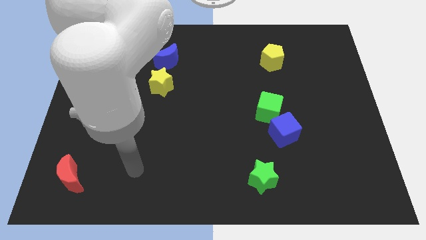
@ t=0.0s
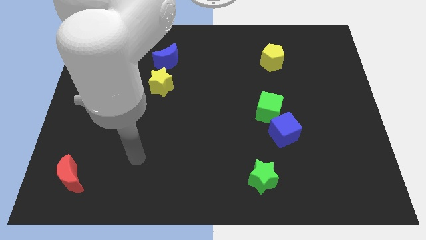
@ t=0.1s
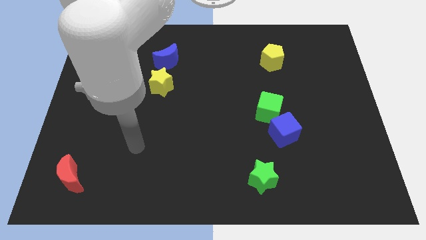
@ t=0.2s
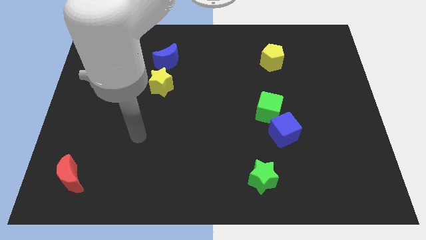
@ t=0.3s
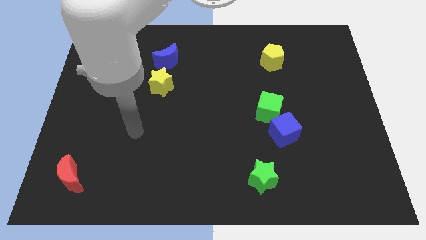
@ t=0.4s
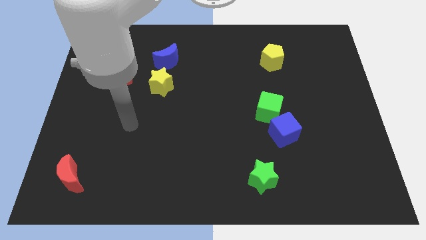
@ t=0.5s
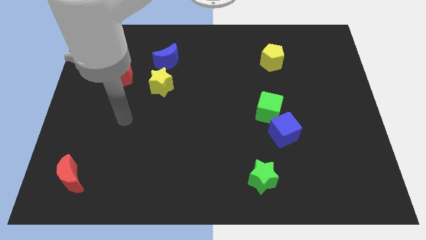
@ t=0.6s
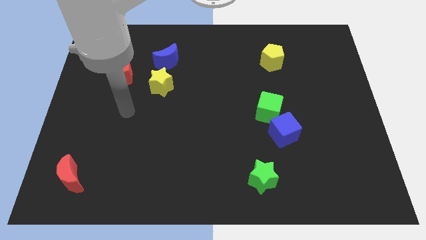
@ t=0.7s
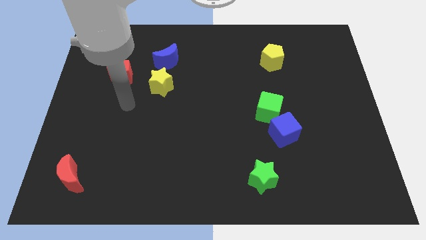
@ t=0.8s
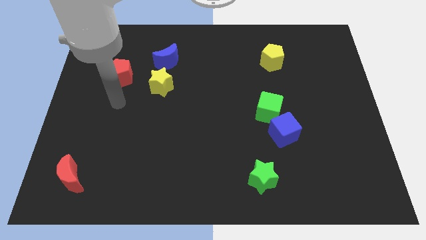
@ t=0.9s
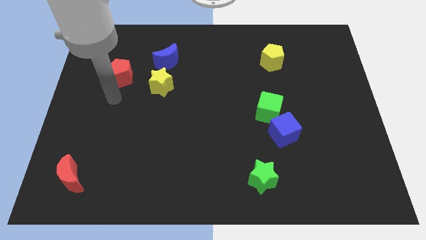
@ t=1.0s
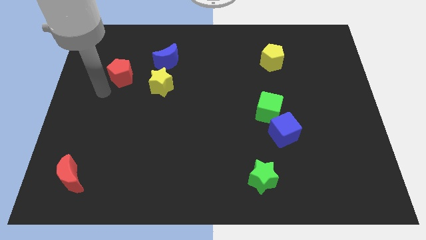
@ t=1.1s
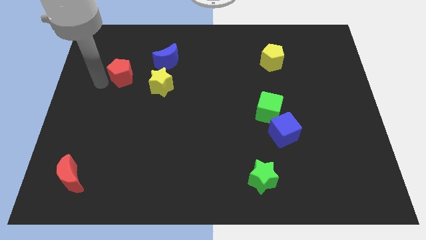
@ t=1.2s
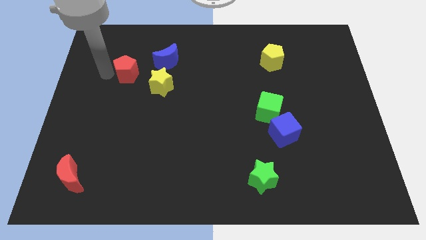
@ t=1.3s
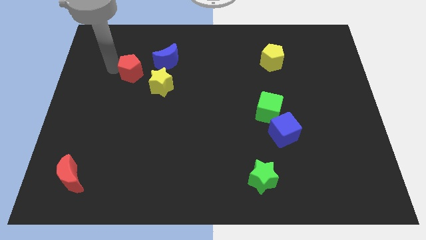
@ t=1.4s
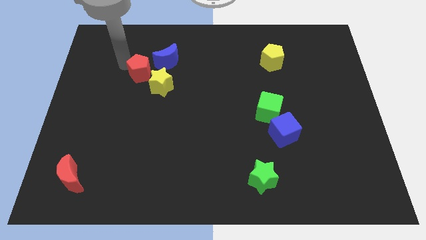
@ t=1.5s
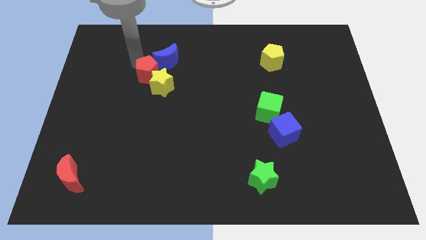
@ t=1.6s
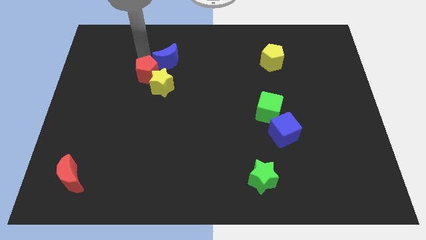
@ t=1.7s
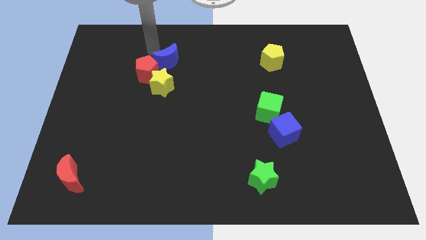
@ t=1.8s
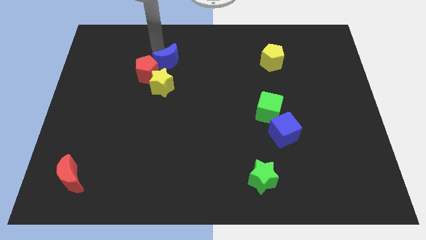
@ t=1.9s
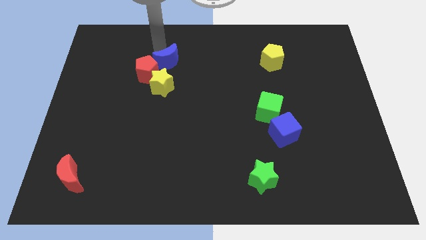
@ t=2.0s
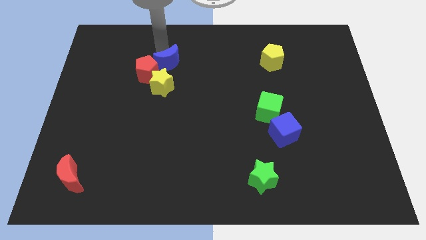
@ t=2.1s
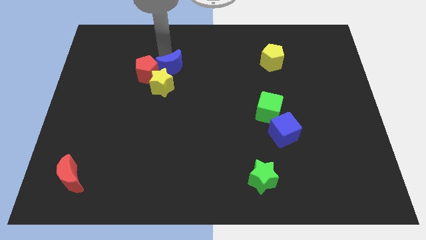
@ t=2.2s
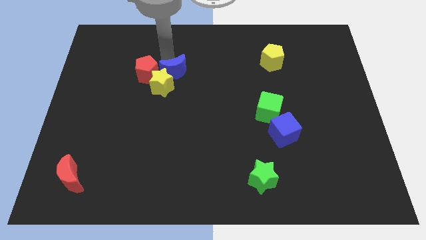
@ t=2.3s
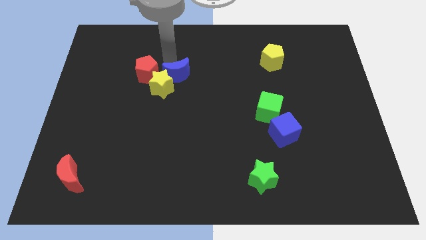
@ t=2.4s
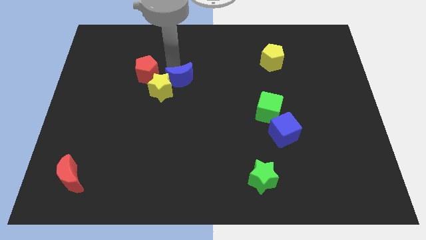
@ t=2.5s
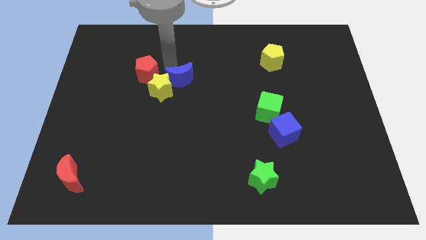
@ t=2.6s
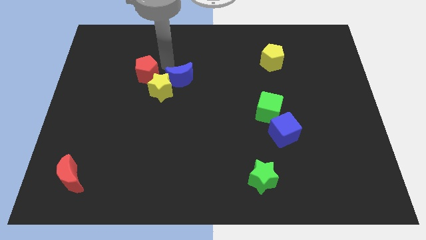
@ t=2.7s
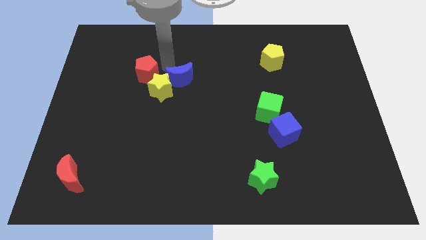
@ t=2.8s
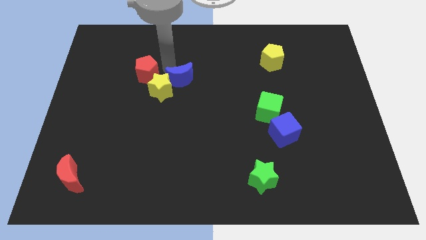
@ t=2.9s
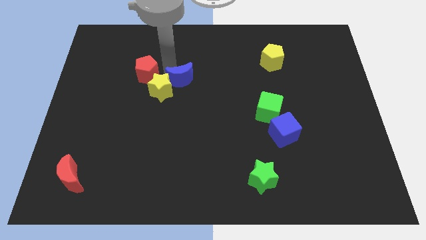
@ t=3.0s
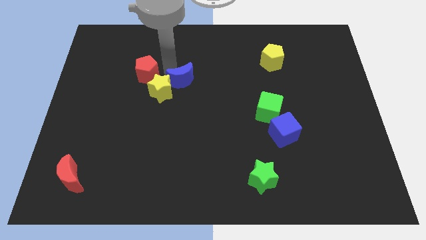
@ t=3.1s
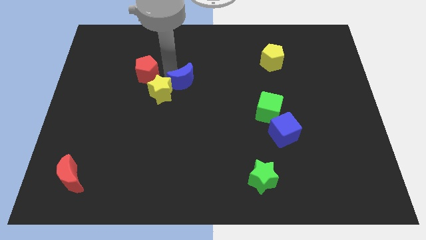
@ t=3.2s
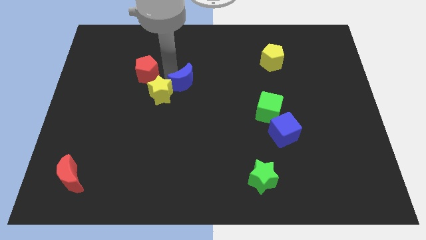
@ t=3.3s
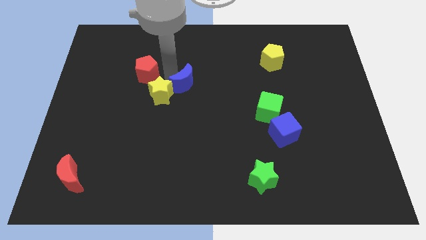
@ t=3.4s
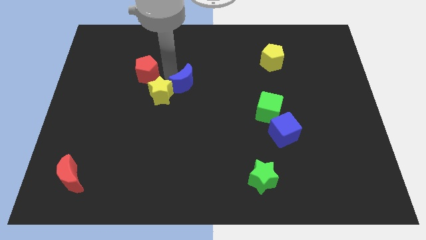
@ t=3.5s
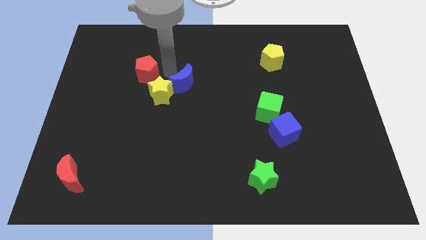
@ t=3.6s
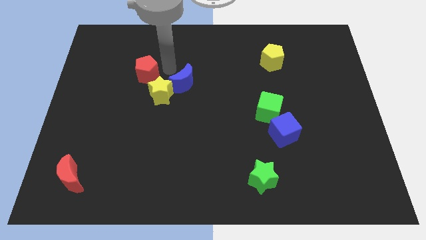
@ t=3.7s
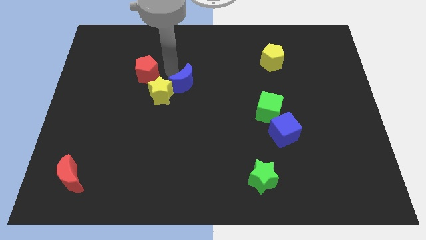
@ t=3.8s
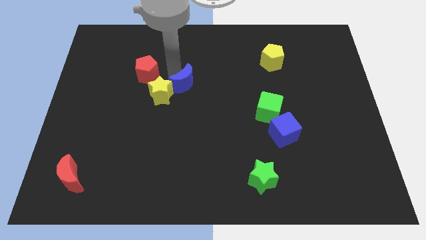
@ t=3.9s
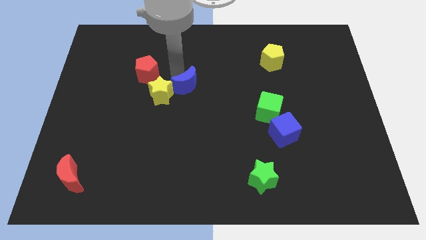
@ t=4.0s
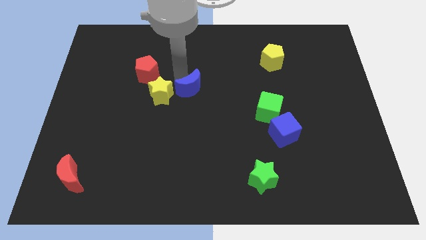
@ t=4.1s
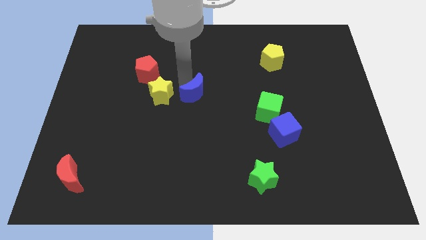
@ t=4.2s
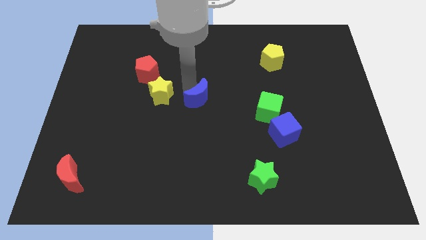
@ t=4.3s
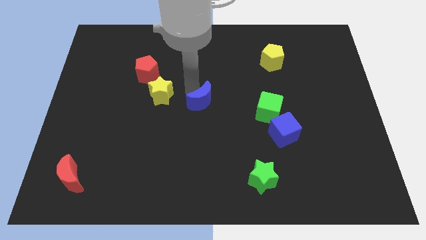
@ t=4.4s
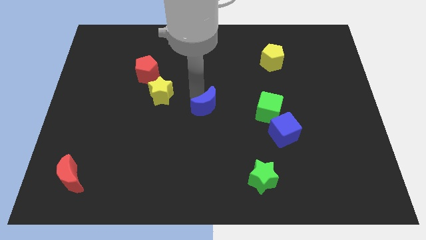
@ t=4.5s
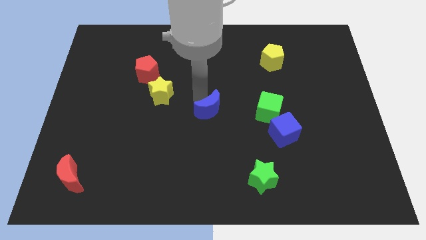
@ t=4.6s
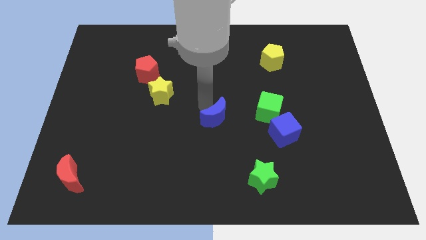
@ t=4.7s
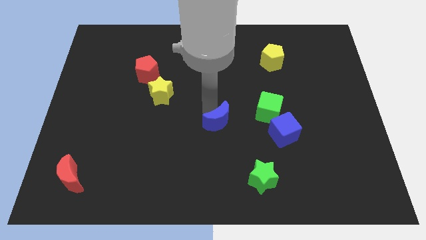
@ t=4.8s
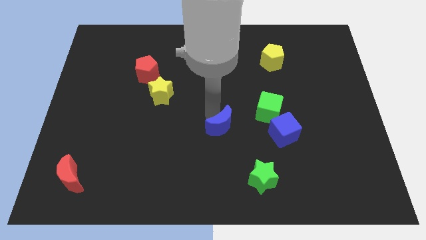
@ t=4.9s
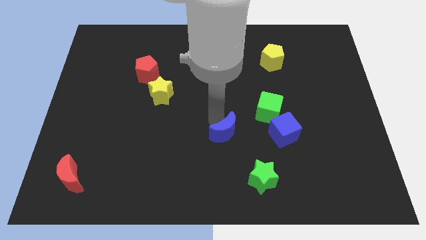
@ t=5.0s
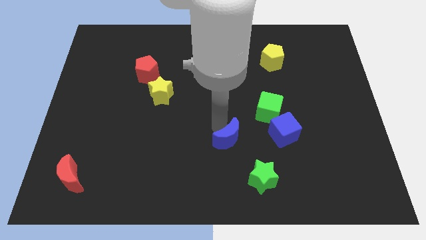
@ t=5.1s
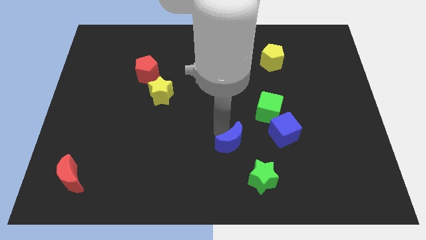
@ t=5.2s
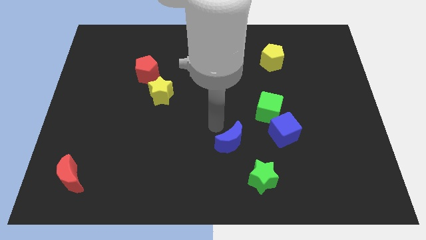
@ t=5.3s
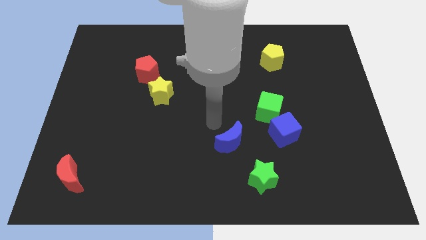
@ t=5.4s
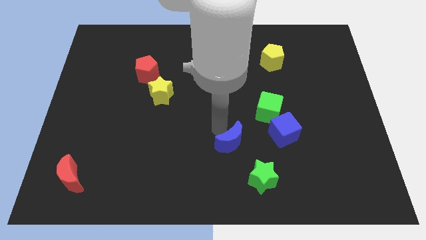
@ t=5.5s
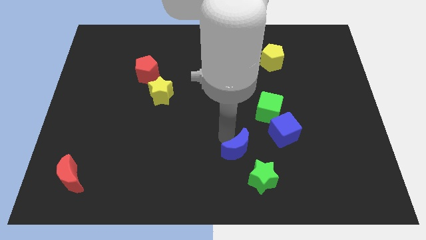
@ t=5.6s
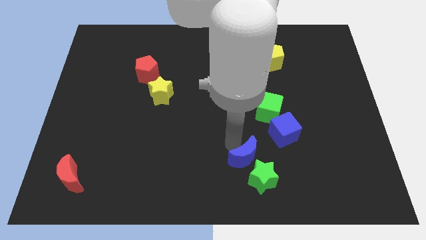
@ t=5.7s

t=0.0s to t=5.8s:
put the blue moon next to the green star

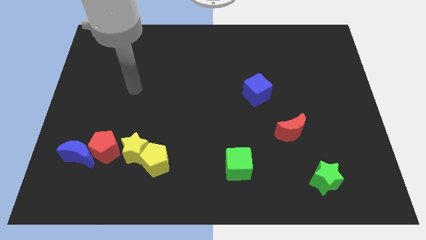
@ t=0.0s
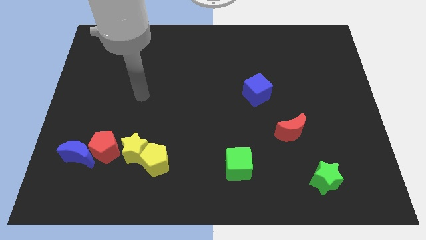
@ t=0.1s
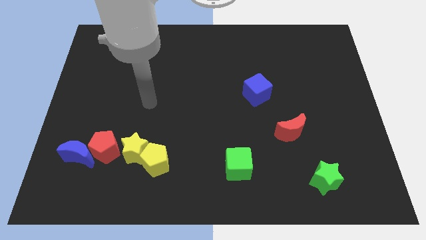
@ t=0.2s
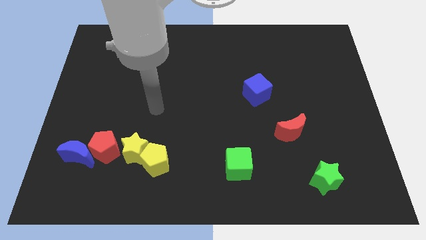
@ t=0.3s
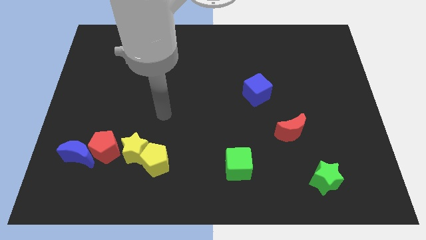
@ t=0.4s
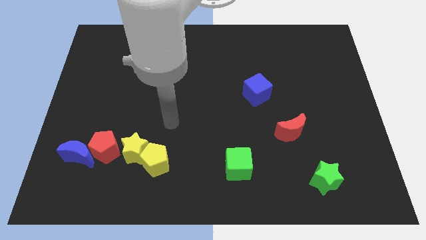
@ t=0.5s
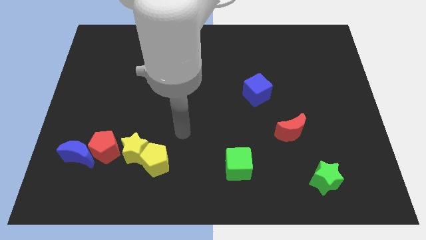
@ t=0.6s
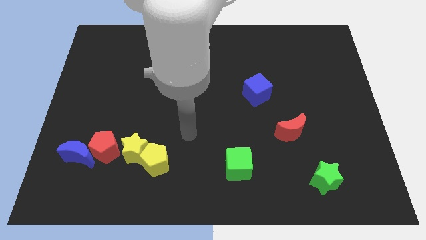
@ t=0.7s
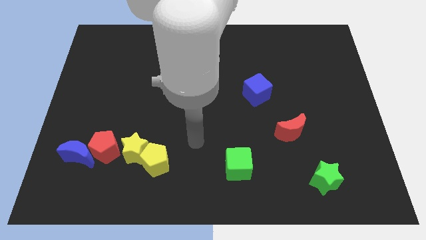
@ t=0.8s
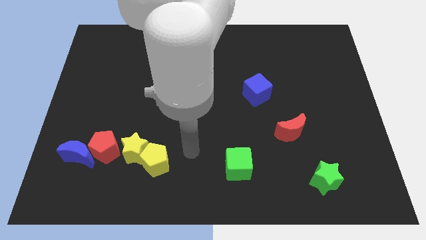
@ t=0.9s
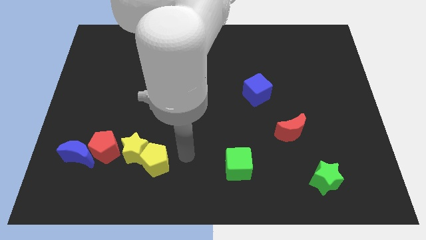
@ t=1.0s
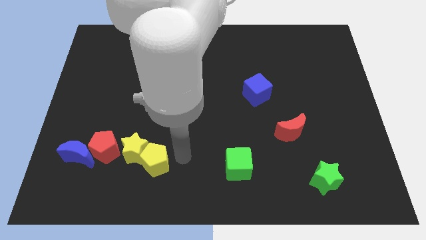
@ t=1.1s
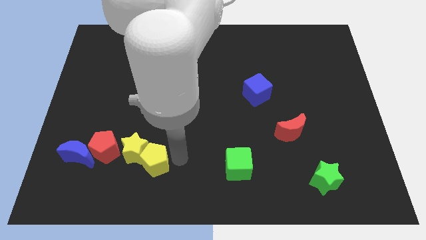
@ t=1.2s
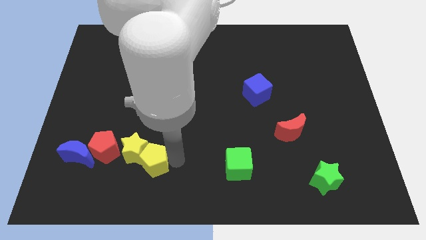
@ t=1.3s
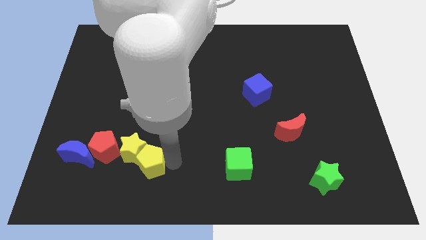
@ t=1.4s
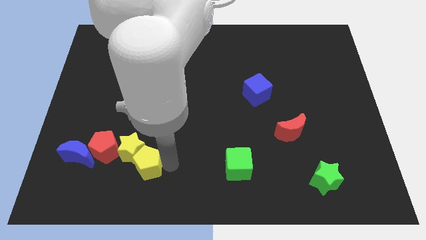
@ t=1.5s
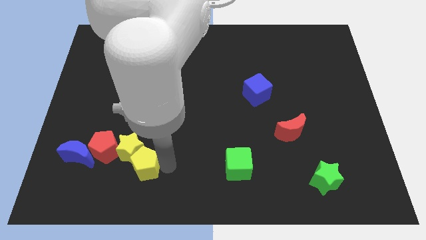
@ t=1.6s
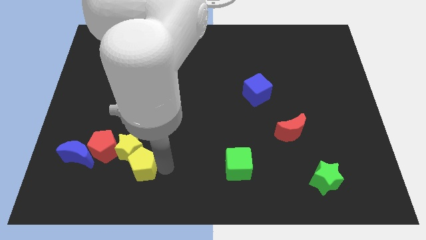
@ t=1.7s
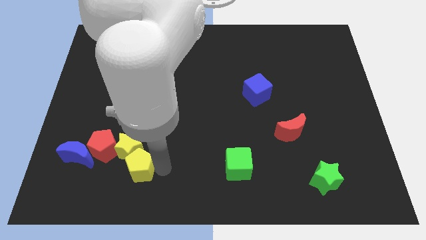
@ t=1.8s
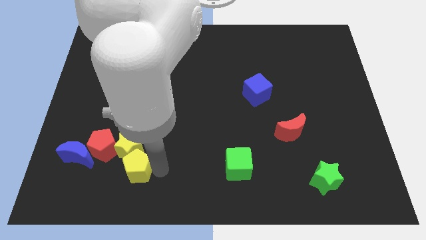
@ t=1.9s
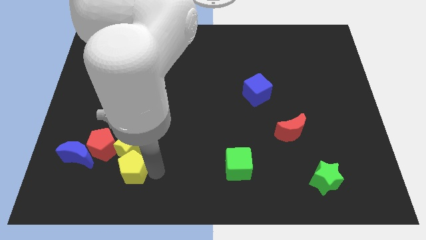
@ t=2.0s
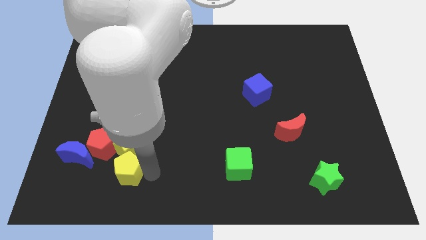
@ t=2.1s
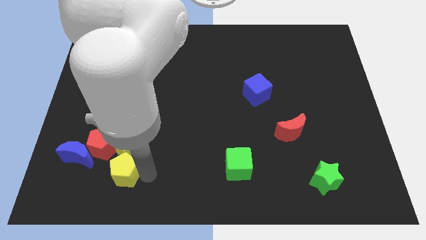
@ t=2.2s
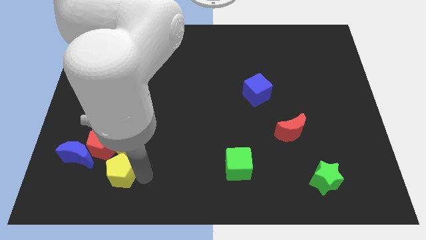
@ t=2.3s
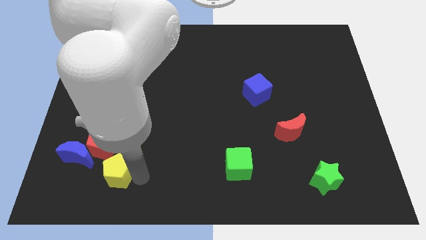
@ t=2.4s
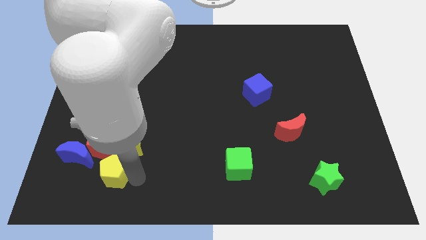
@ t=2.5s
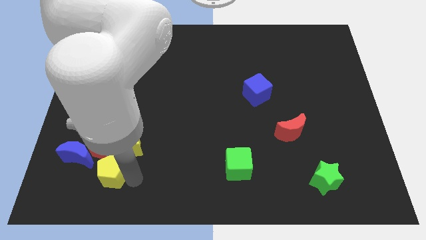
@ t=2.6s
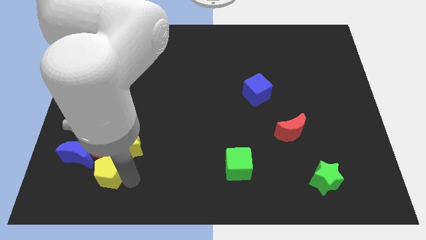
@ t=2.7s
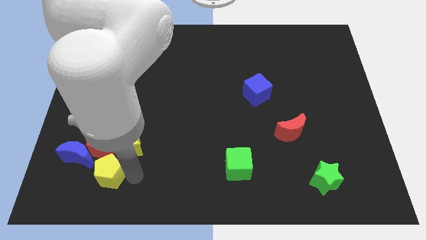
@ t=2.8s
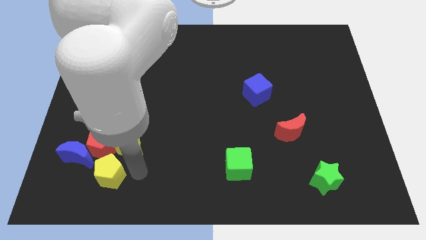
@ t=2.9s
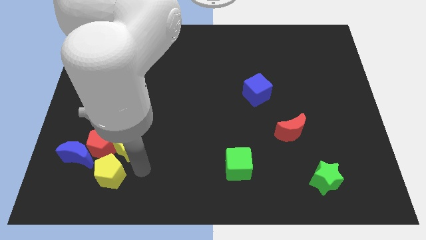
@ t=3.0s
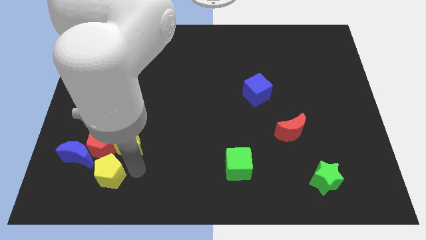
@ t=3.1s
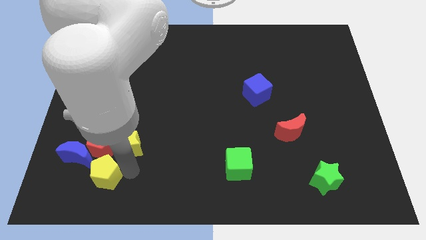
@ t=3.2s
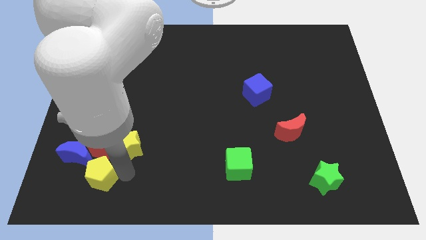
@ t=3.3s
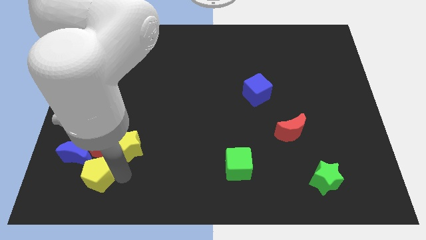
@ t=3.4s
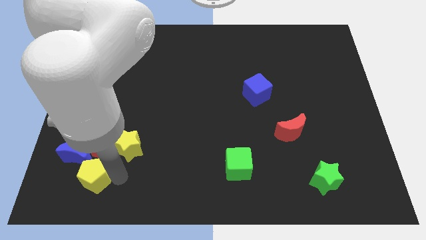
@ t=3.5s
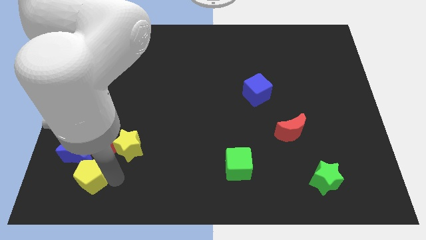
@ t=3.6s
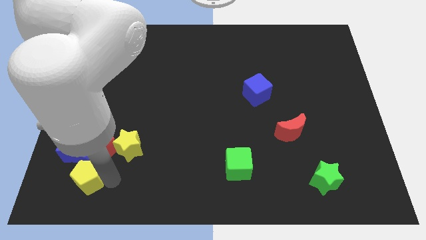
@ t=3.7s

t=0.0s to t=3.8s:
put the yellow pentagon close to the blue moon
